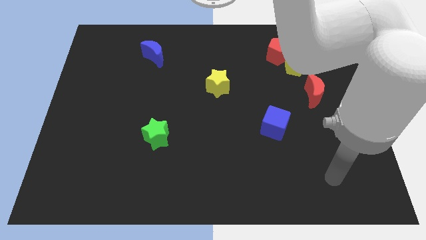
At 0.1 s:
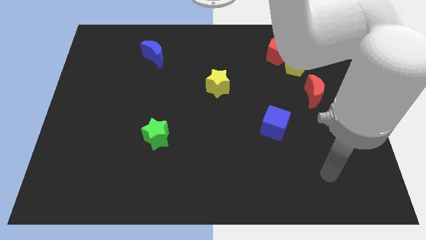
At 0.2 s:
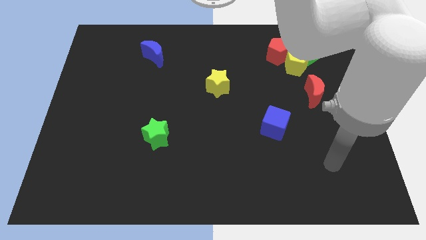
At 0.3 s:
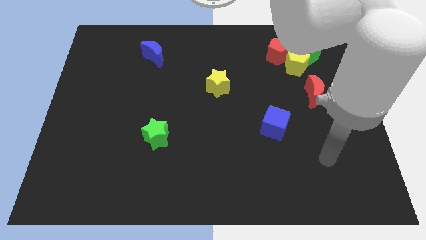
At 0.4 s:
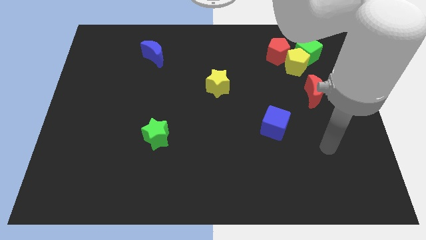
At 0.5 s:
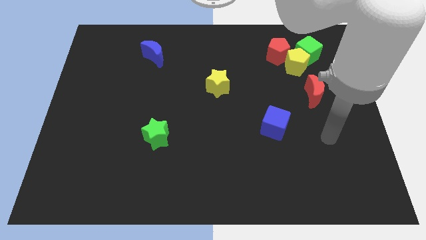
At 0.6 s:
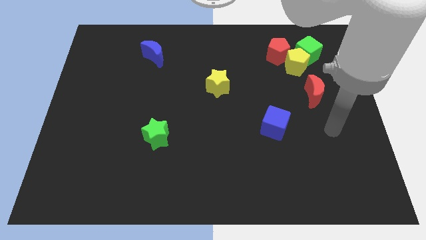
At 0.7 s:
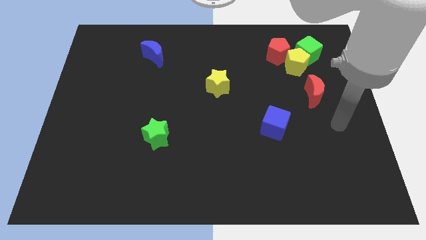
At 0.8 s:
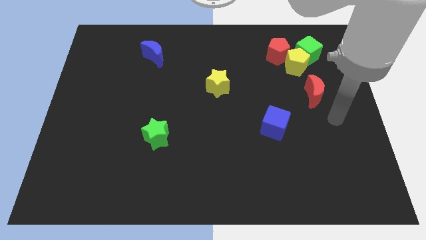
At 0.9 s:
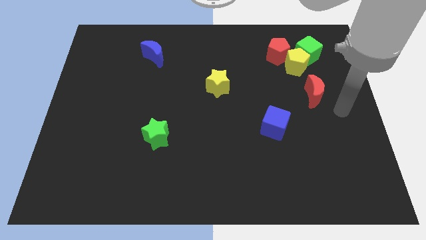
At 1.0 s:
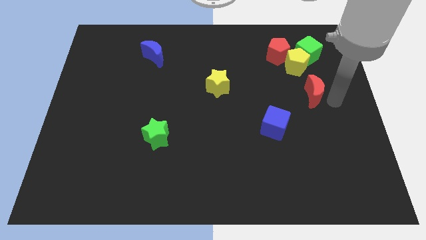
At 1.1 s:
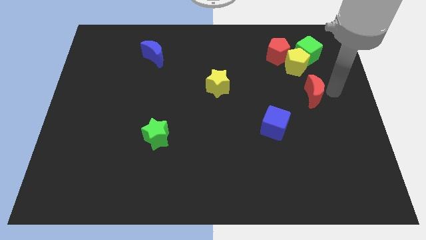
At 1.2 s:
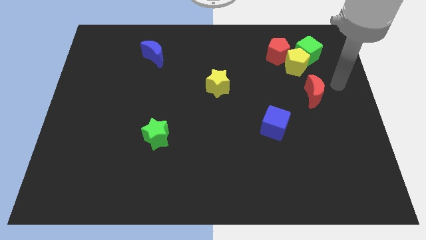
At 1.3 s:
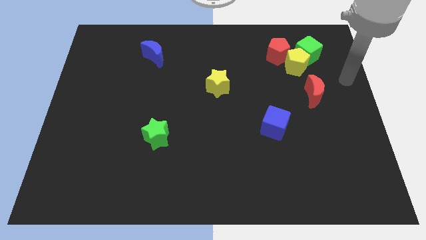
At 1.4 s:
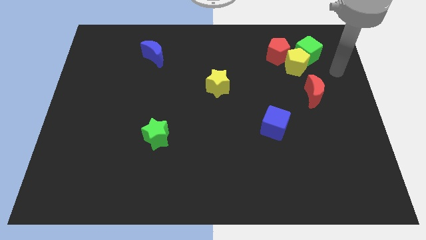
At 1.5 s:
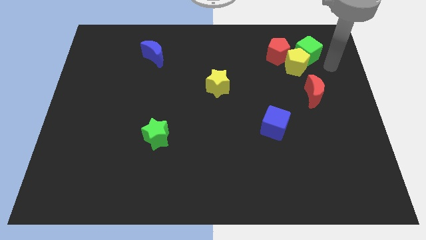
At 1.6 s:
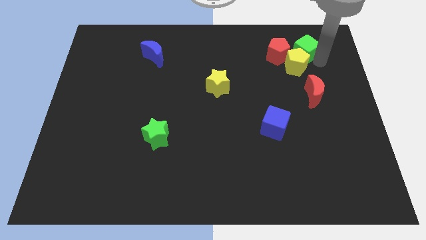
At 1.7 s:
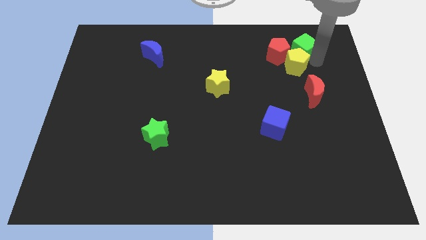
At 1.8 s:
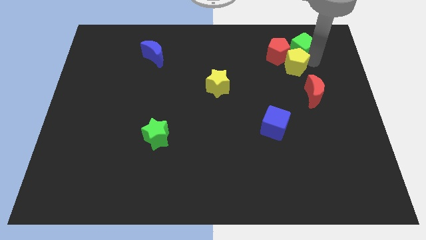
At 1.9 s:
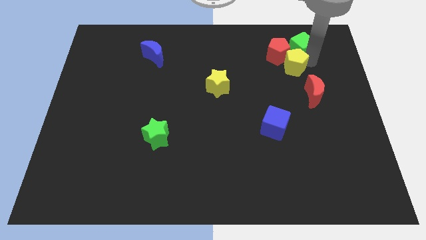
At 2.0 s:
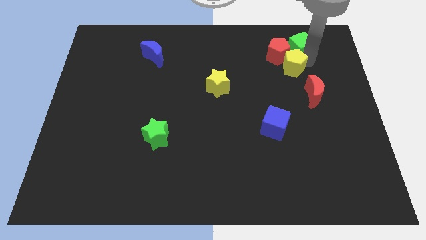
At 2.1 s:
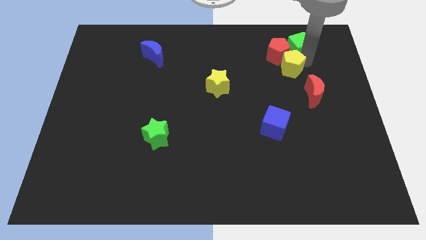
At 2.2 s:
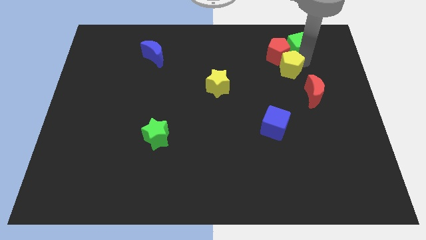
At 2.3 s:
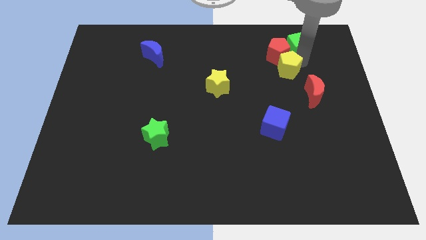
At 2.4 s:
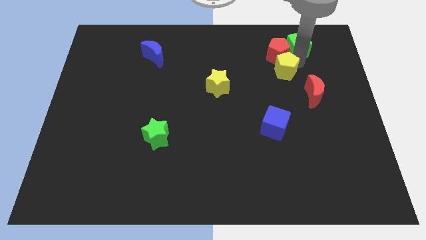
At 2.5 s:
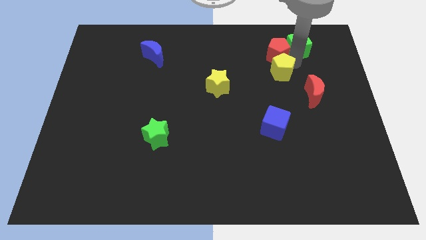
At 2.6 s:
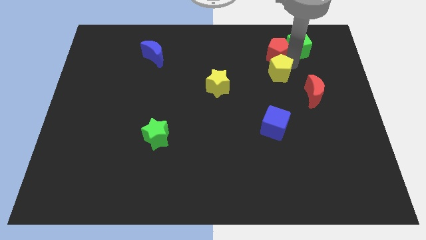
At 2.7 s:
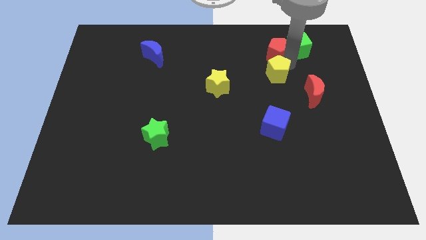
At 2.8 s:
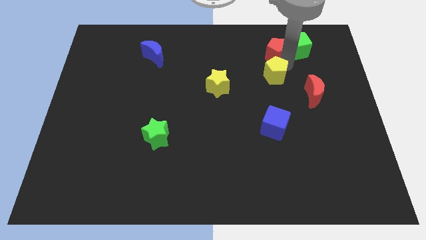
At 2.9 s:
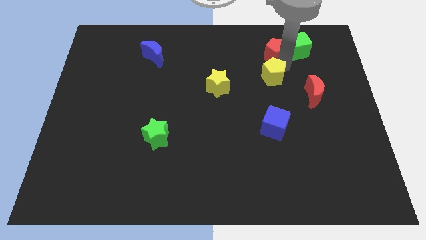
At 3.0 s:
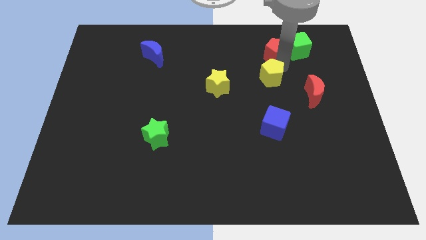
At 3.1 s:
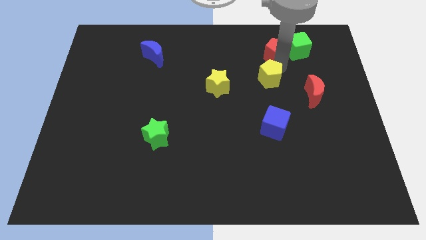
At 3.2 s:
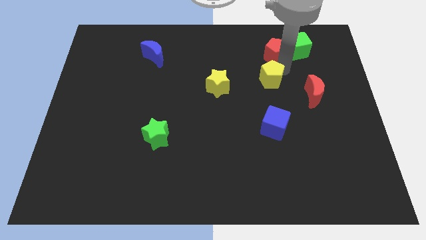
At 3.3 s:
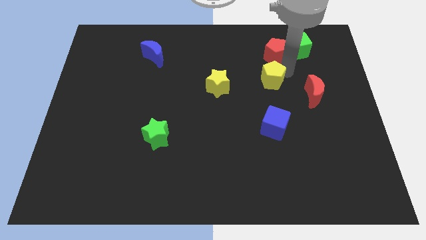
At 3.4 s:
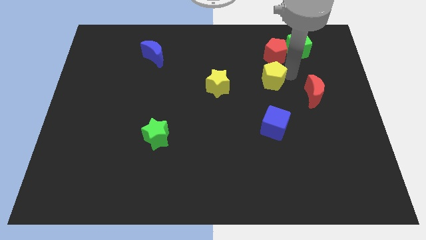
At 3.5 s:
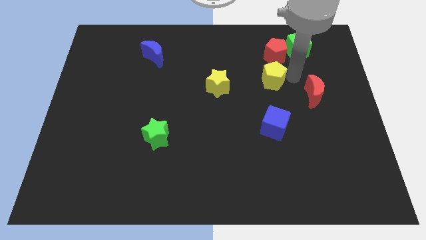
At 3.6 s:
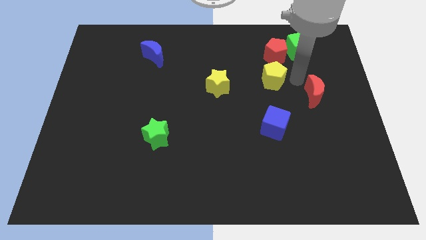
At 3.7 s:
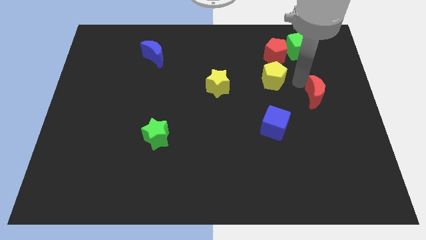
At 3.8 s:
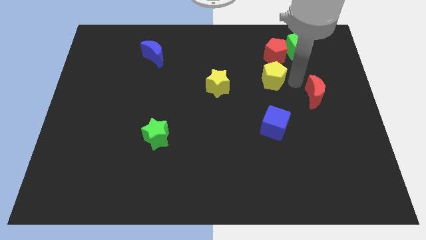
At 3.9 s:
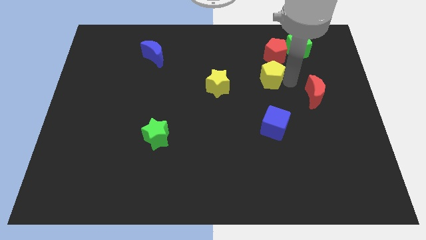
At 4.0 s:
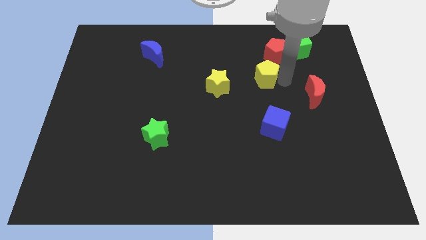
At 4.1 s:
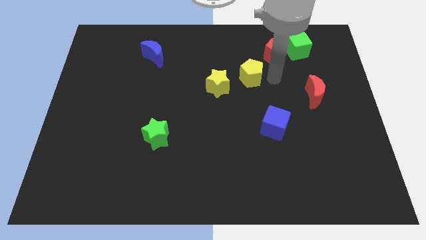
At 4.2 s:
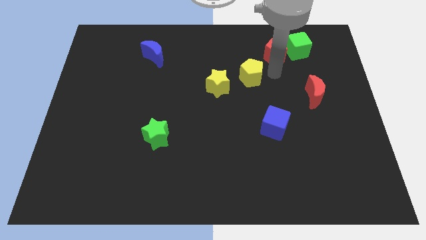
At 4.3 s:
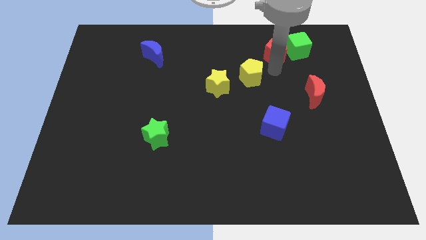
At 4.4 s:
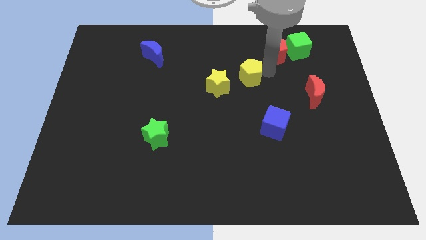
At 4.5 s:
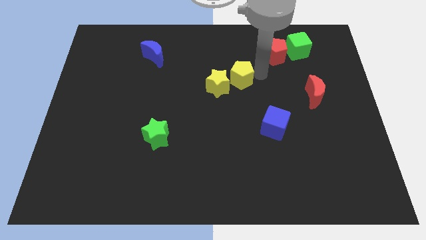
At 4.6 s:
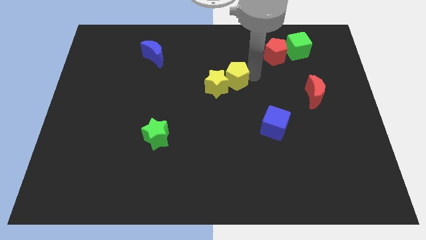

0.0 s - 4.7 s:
push the yellow pentagon to the yellow star

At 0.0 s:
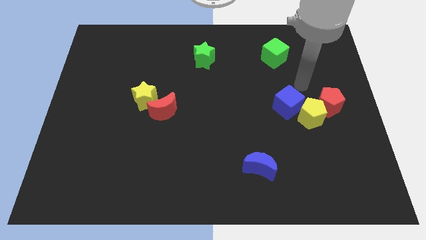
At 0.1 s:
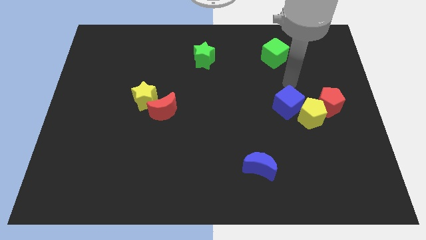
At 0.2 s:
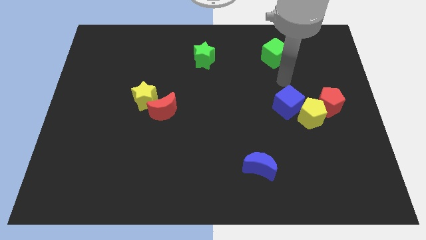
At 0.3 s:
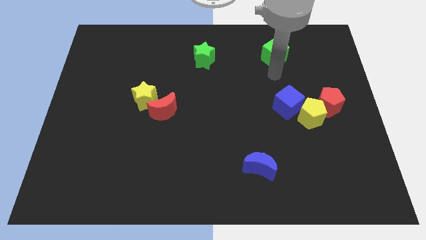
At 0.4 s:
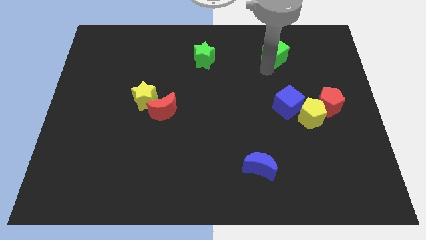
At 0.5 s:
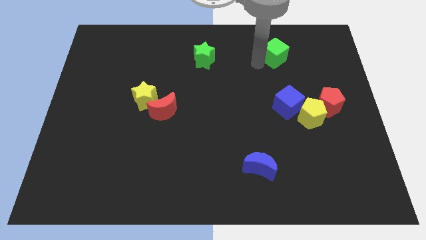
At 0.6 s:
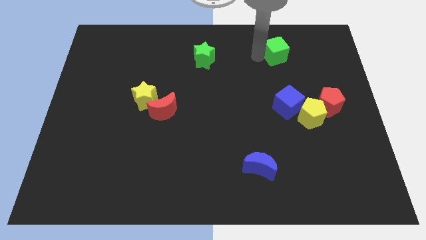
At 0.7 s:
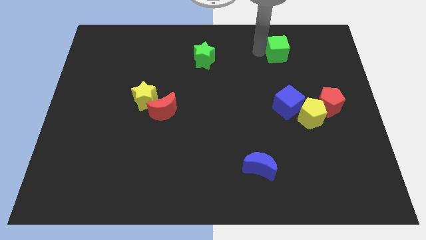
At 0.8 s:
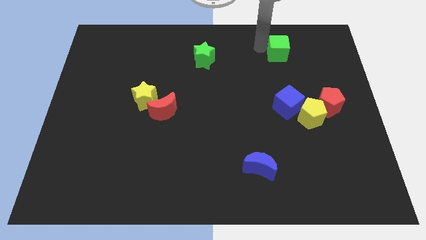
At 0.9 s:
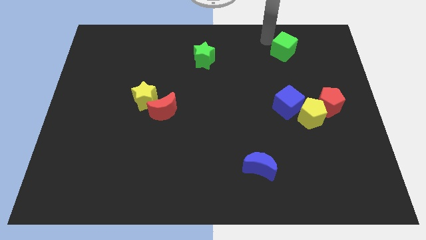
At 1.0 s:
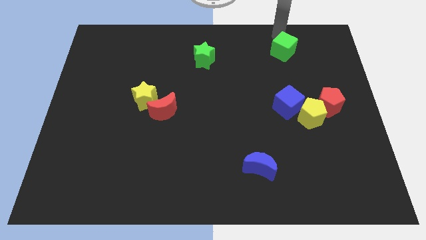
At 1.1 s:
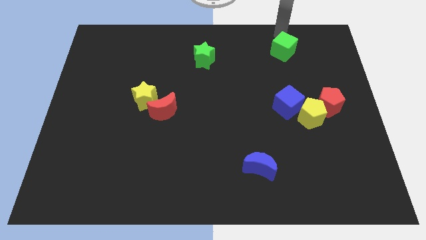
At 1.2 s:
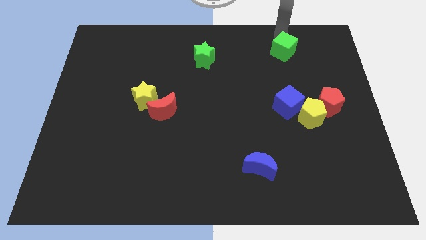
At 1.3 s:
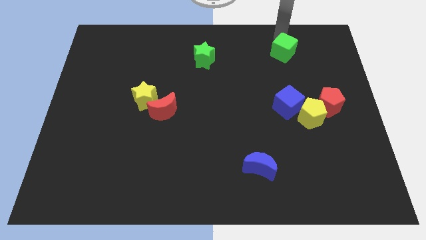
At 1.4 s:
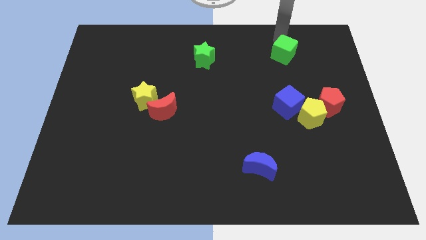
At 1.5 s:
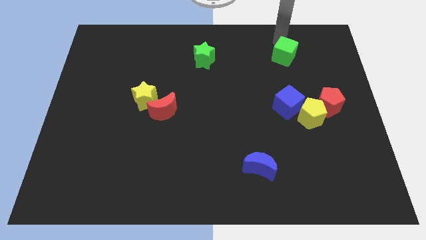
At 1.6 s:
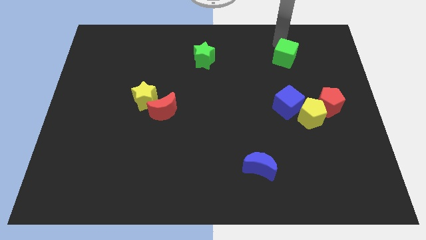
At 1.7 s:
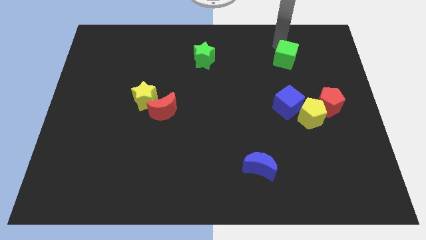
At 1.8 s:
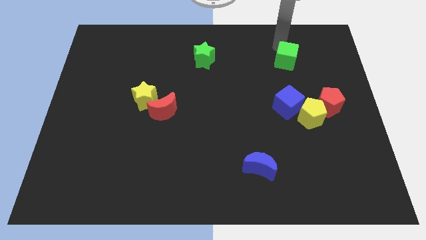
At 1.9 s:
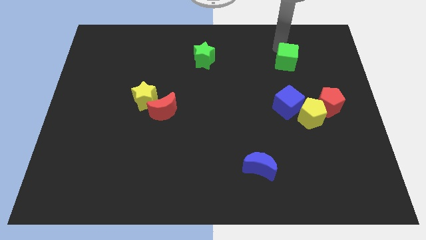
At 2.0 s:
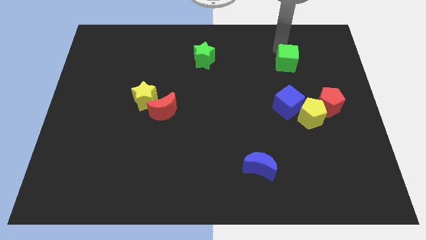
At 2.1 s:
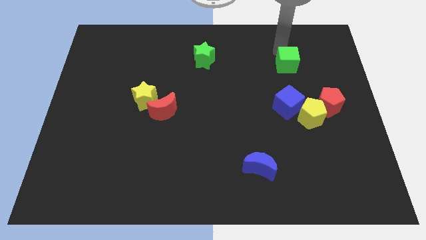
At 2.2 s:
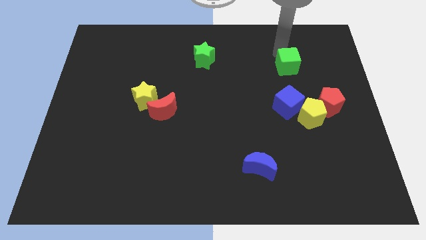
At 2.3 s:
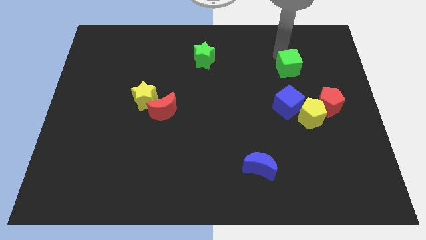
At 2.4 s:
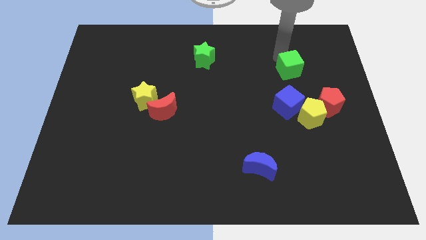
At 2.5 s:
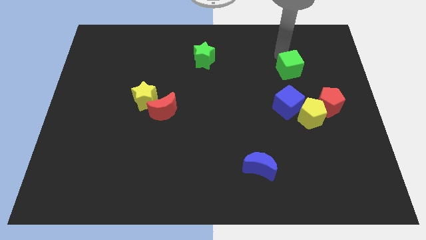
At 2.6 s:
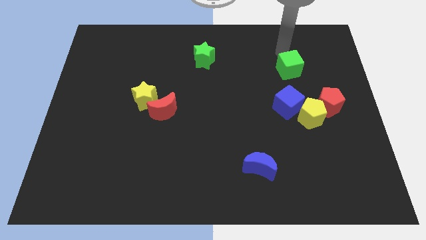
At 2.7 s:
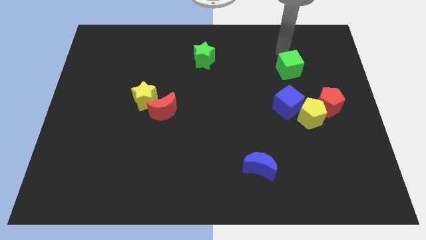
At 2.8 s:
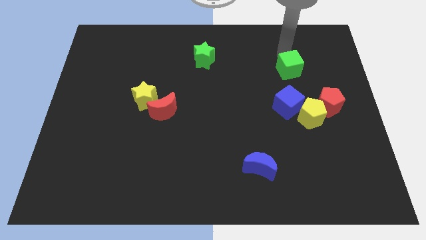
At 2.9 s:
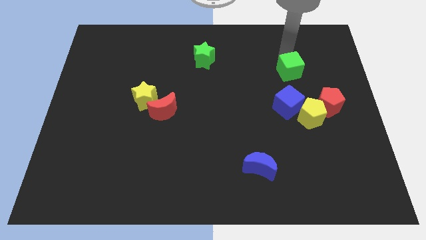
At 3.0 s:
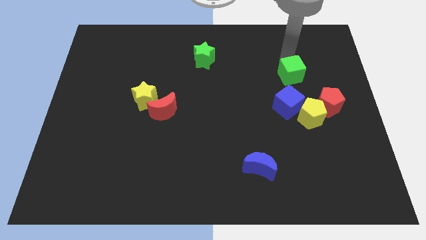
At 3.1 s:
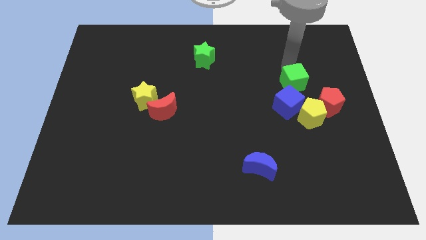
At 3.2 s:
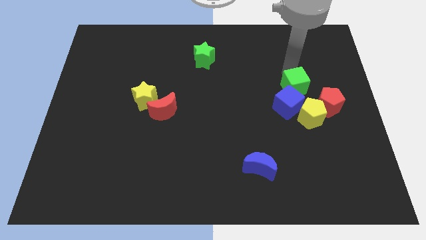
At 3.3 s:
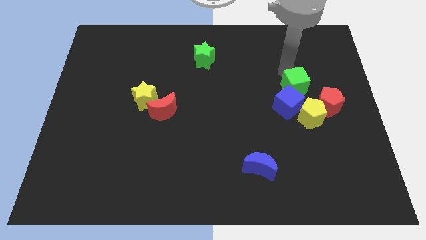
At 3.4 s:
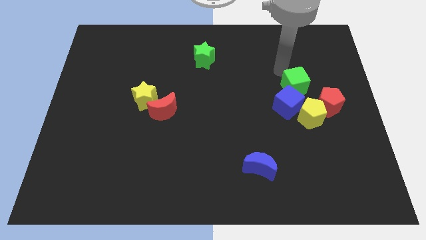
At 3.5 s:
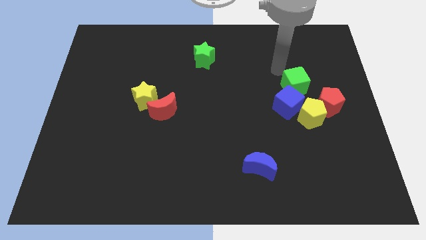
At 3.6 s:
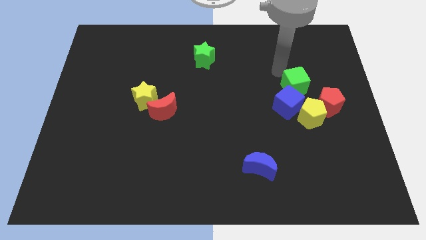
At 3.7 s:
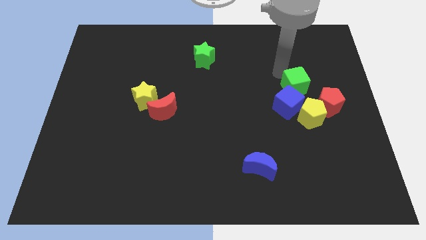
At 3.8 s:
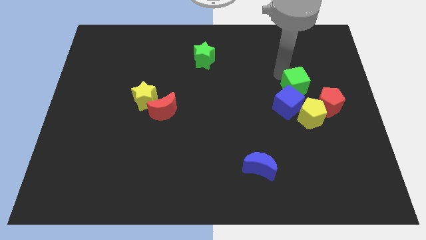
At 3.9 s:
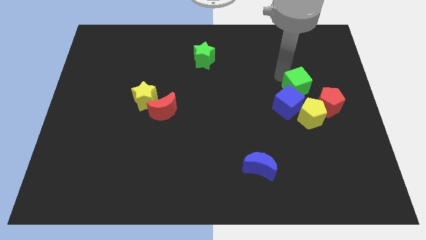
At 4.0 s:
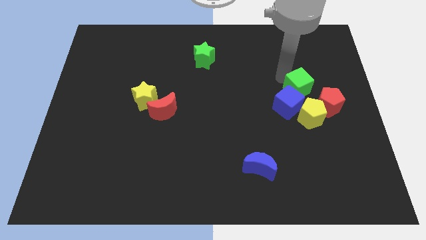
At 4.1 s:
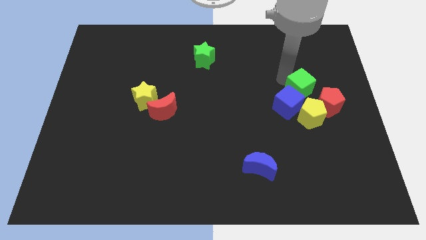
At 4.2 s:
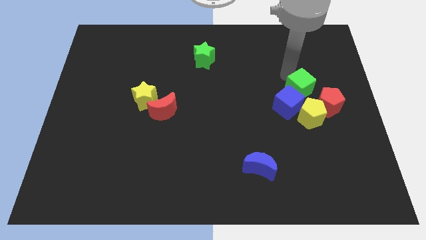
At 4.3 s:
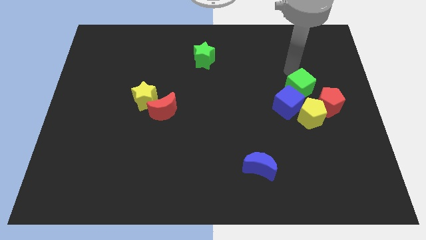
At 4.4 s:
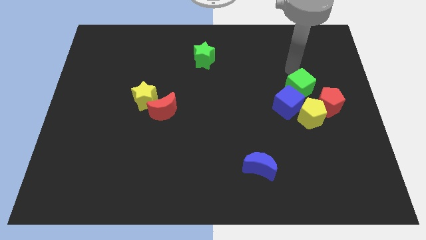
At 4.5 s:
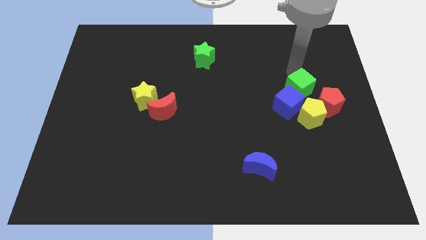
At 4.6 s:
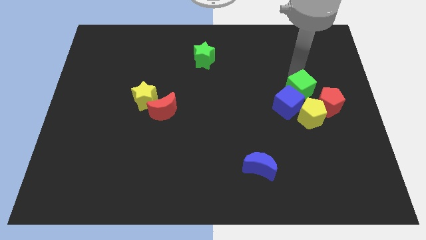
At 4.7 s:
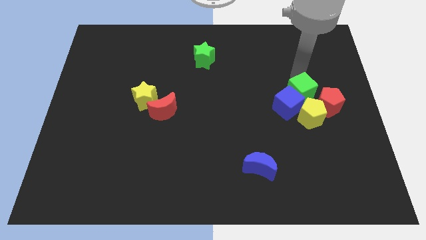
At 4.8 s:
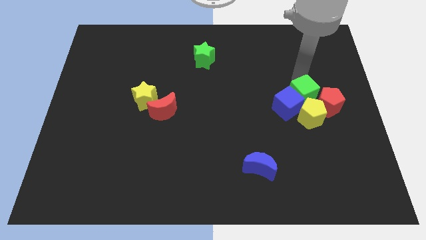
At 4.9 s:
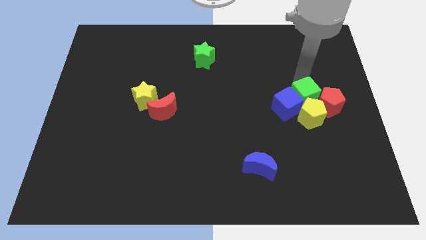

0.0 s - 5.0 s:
push the green cube to the yellow pentagon
